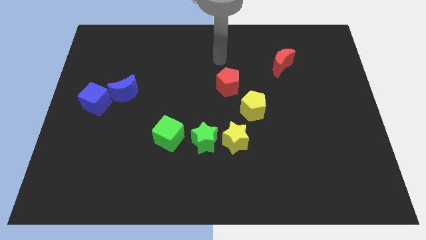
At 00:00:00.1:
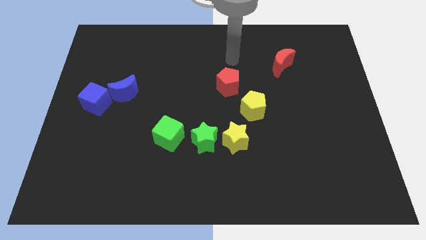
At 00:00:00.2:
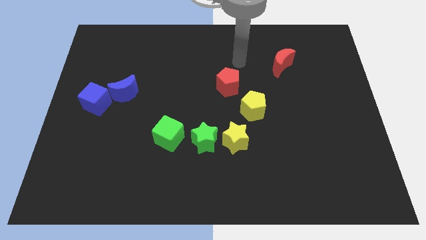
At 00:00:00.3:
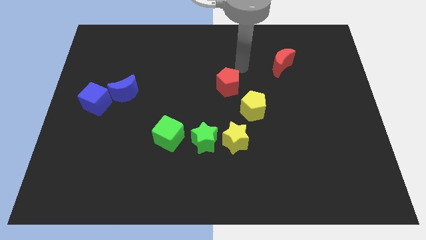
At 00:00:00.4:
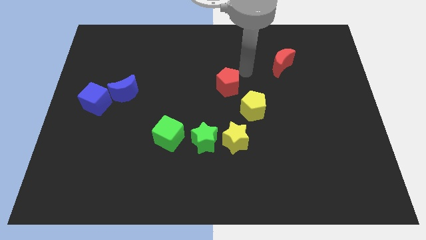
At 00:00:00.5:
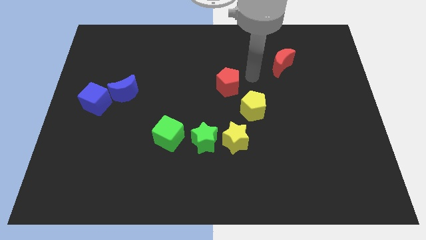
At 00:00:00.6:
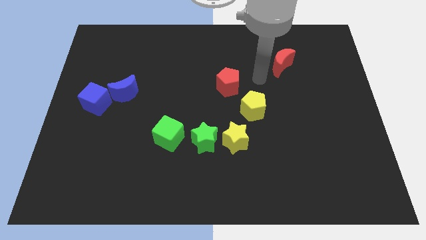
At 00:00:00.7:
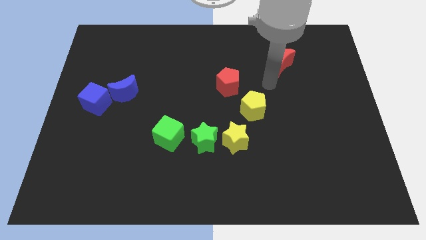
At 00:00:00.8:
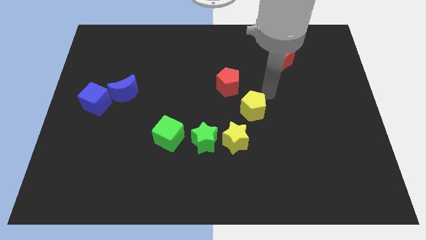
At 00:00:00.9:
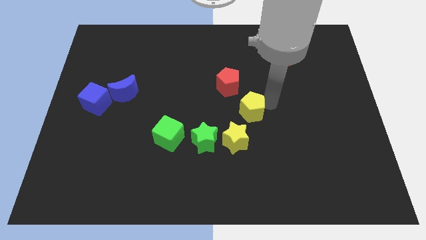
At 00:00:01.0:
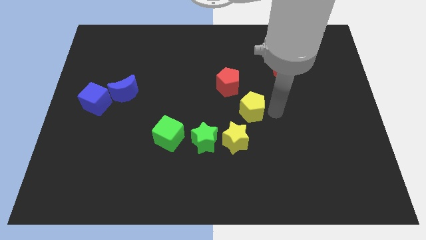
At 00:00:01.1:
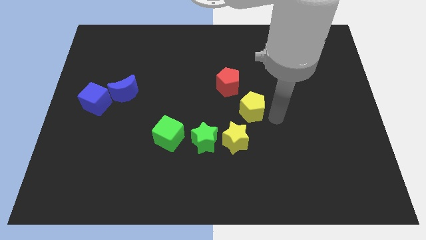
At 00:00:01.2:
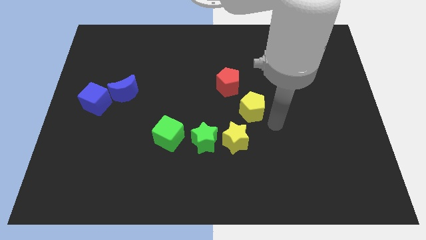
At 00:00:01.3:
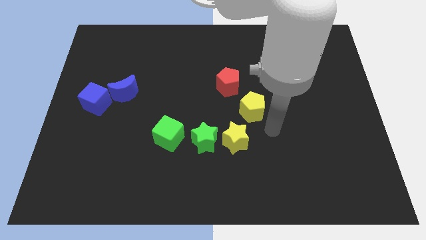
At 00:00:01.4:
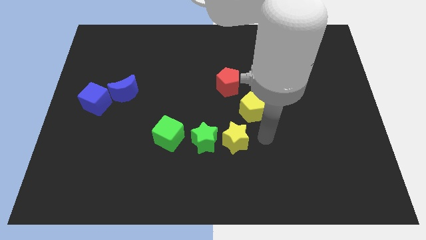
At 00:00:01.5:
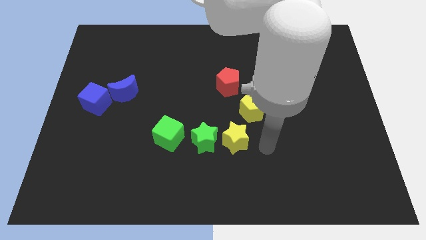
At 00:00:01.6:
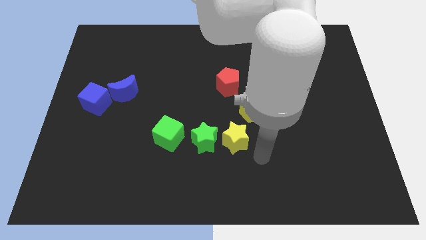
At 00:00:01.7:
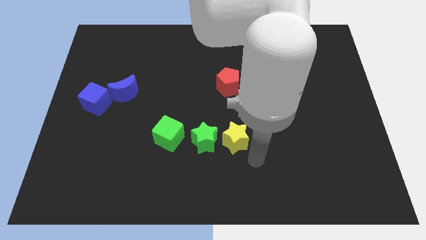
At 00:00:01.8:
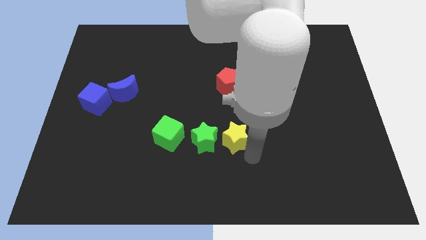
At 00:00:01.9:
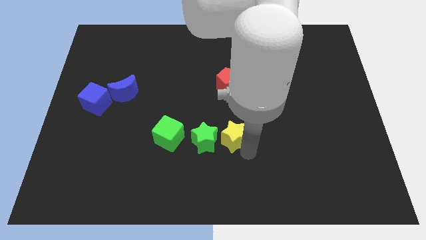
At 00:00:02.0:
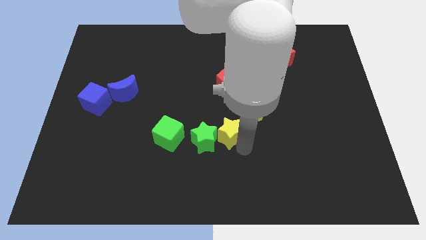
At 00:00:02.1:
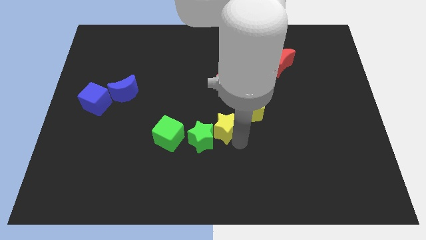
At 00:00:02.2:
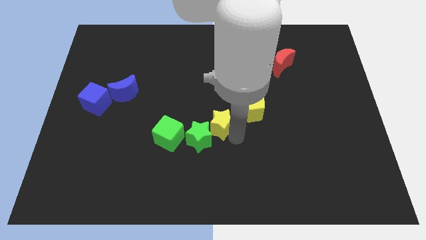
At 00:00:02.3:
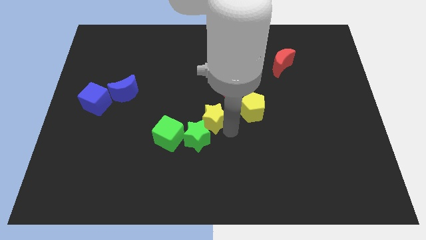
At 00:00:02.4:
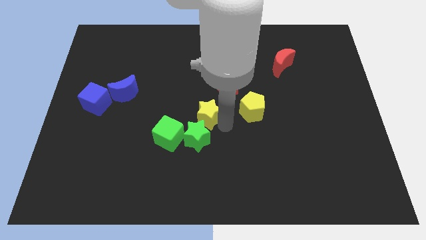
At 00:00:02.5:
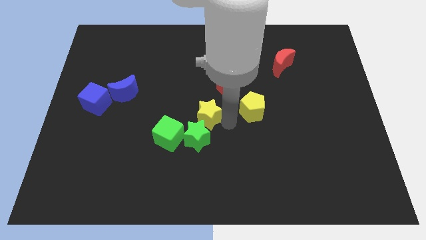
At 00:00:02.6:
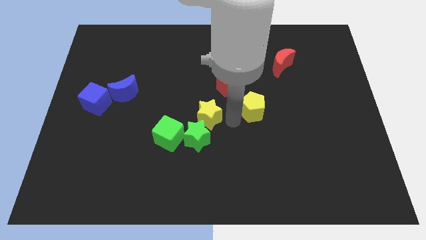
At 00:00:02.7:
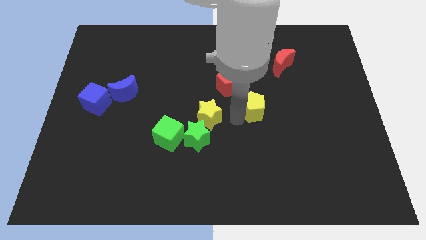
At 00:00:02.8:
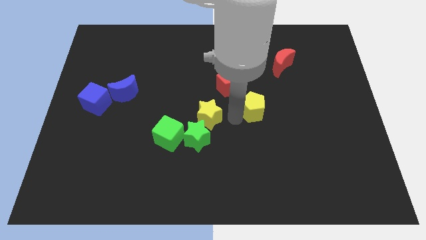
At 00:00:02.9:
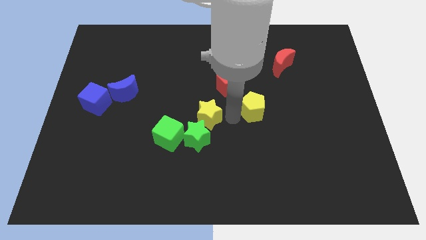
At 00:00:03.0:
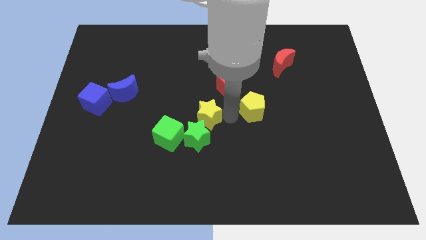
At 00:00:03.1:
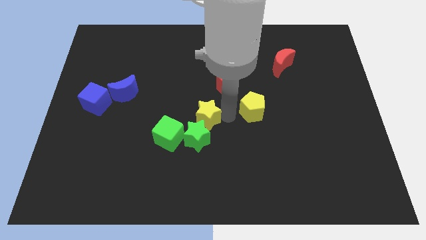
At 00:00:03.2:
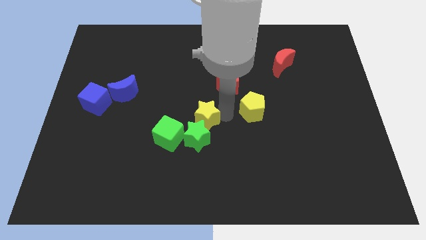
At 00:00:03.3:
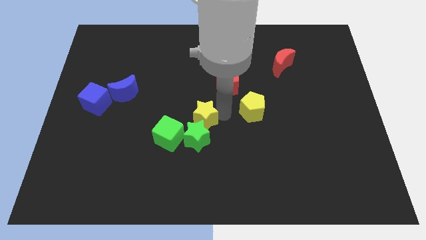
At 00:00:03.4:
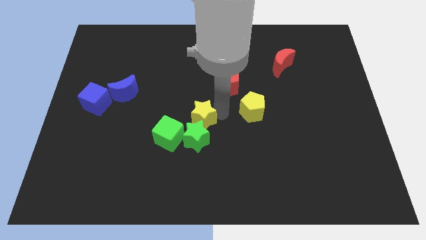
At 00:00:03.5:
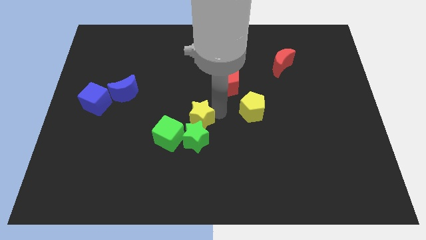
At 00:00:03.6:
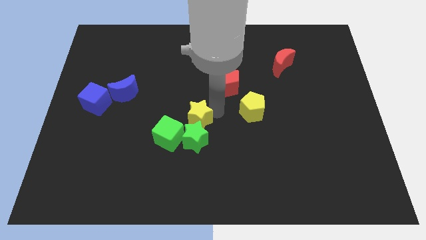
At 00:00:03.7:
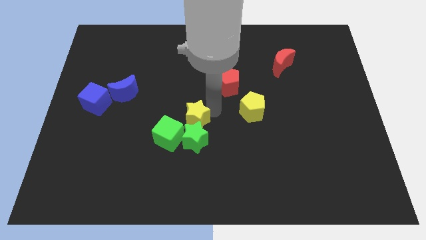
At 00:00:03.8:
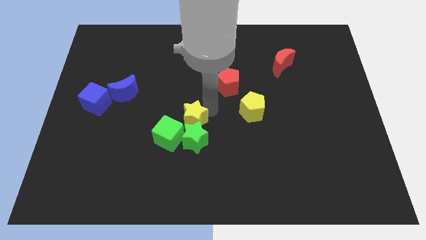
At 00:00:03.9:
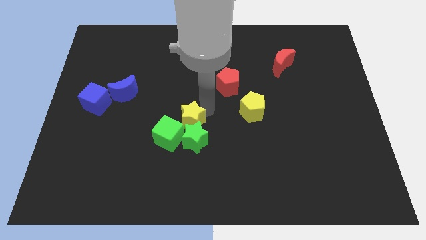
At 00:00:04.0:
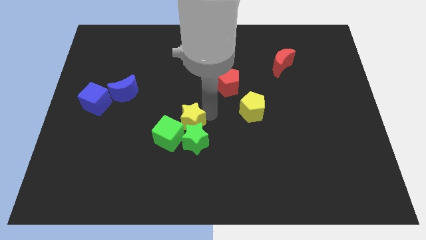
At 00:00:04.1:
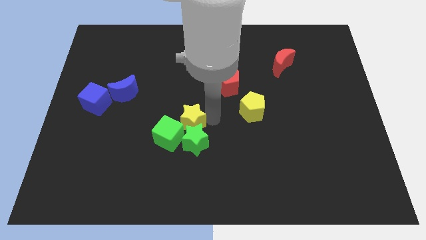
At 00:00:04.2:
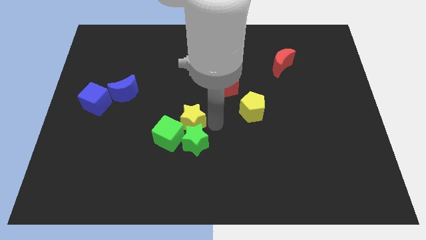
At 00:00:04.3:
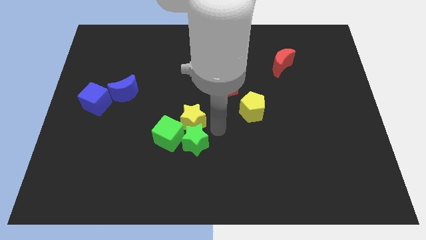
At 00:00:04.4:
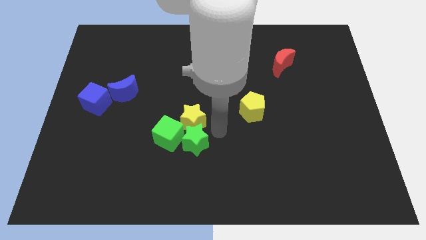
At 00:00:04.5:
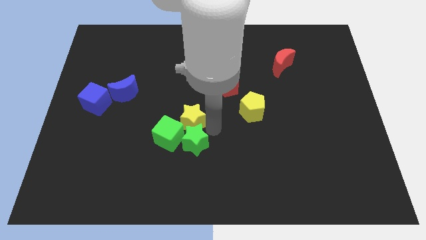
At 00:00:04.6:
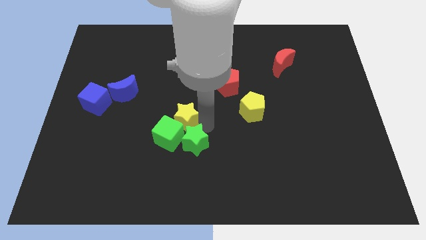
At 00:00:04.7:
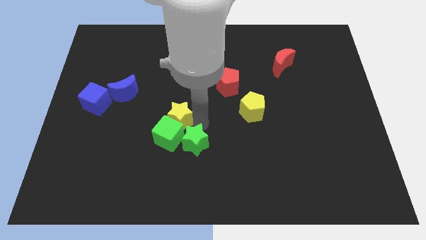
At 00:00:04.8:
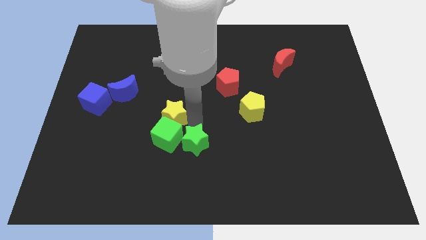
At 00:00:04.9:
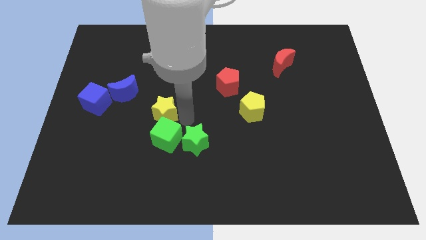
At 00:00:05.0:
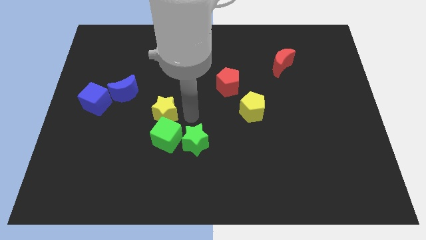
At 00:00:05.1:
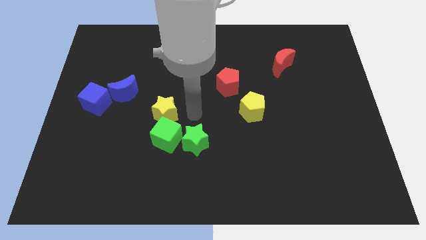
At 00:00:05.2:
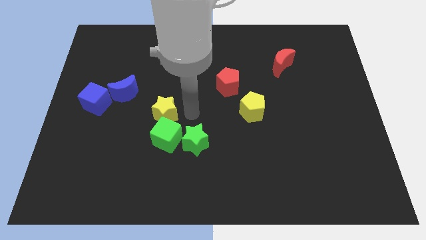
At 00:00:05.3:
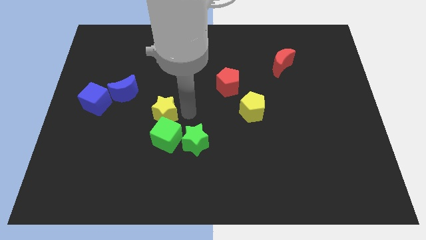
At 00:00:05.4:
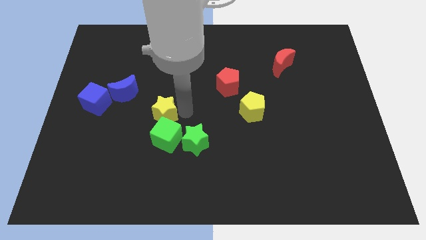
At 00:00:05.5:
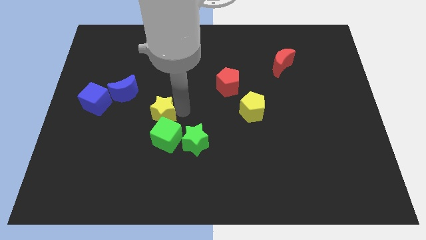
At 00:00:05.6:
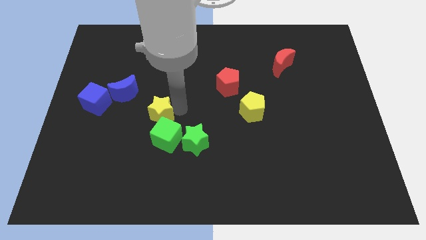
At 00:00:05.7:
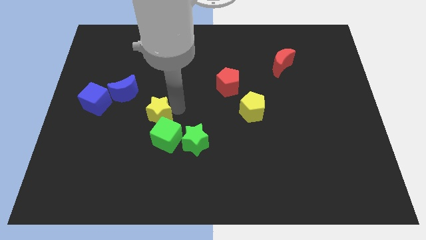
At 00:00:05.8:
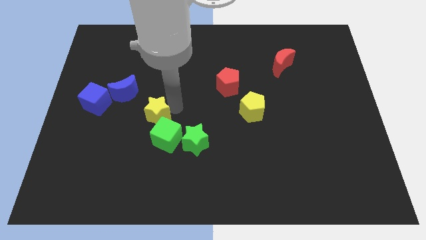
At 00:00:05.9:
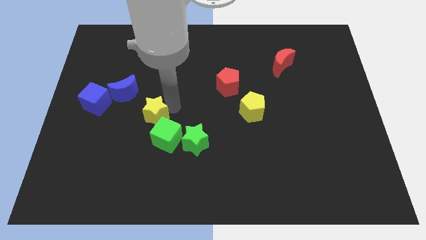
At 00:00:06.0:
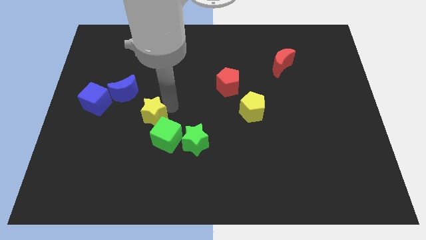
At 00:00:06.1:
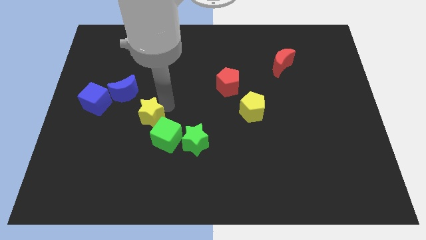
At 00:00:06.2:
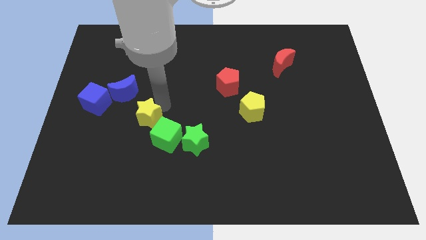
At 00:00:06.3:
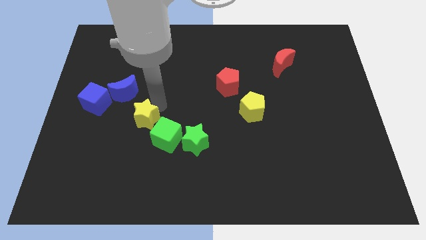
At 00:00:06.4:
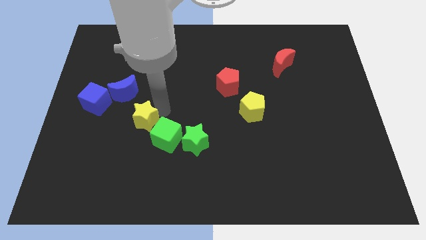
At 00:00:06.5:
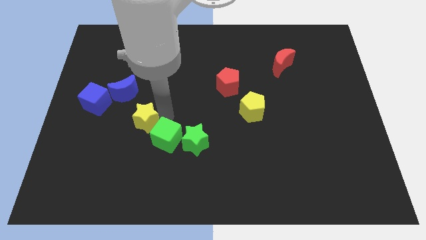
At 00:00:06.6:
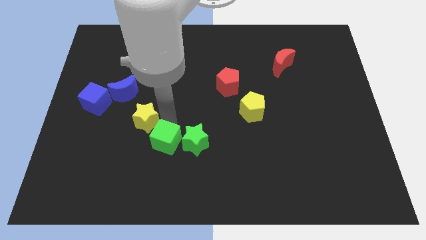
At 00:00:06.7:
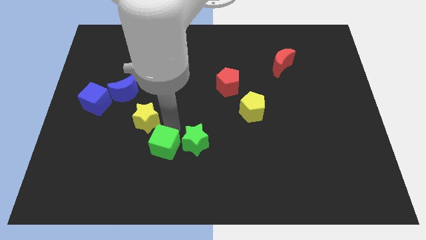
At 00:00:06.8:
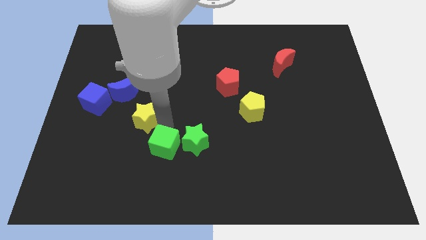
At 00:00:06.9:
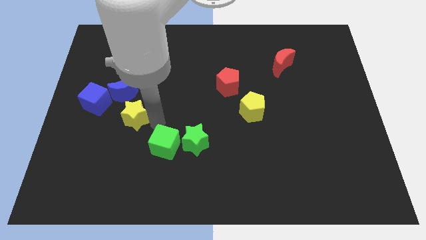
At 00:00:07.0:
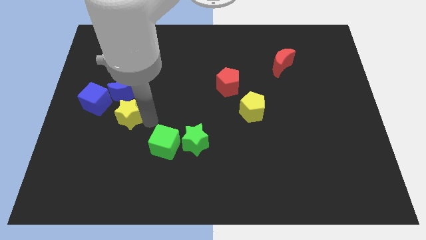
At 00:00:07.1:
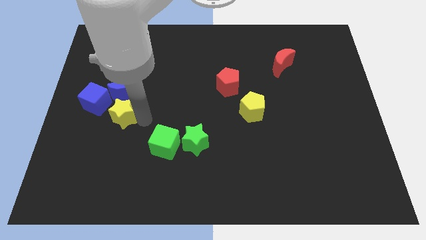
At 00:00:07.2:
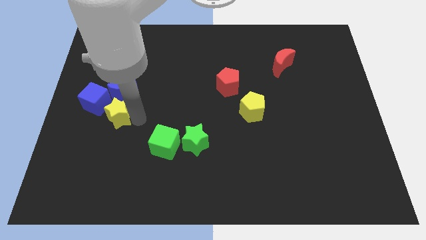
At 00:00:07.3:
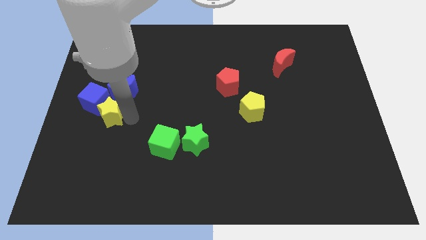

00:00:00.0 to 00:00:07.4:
put the yellow star close to the blue cube
